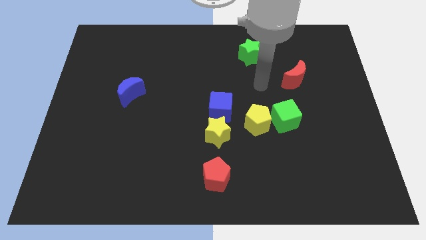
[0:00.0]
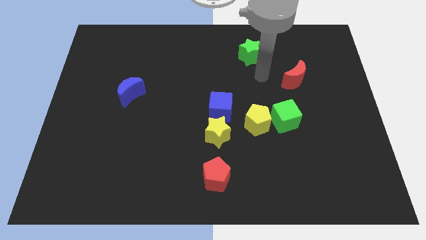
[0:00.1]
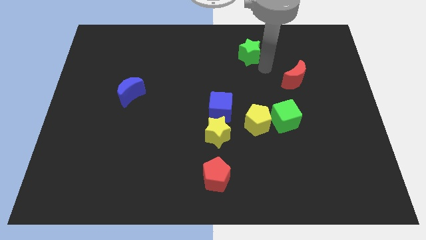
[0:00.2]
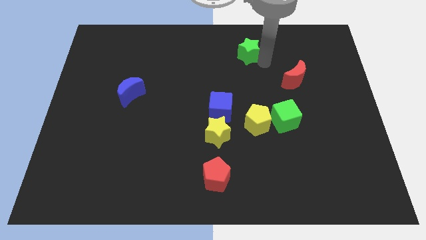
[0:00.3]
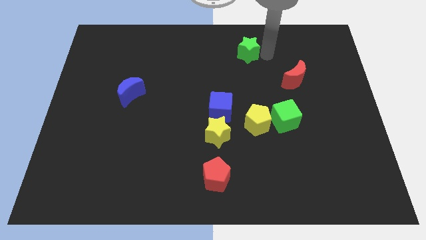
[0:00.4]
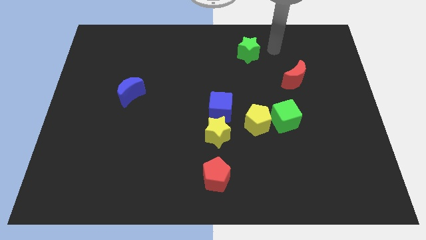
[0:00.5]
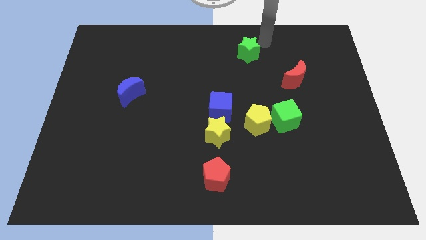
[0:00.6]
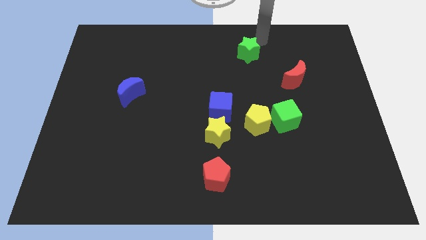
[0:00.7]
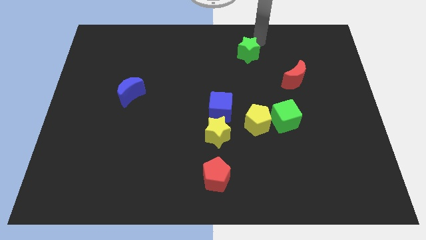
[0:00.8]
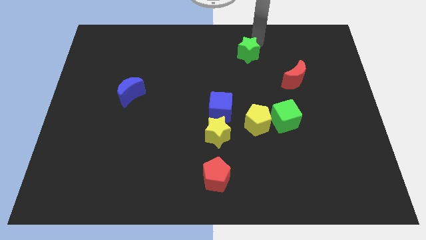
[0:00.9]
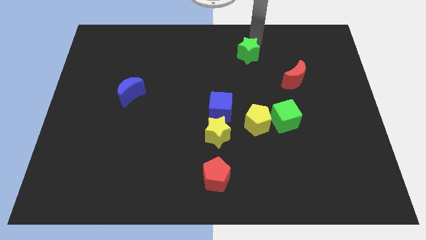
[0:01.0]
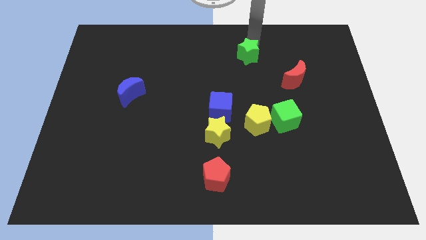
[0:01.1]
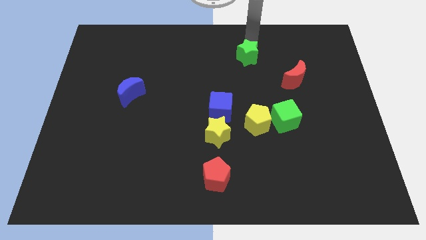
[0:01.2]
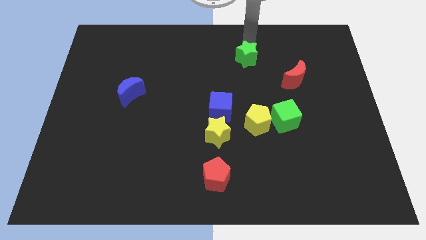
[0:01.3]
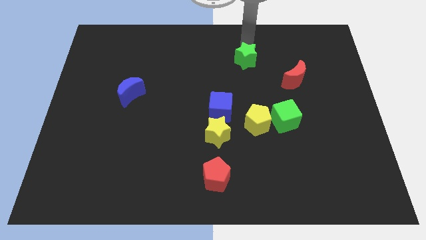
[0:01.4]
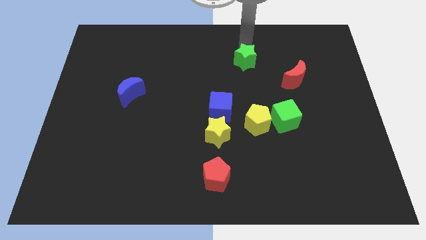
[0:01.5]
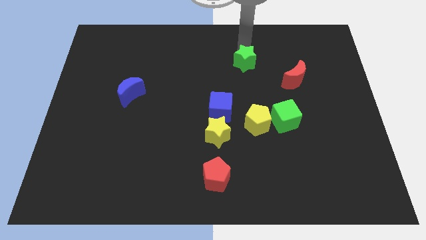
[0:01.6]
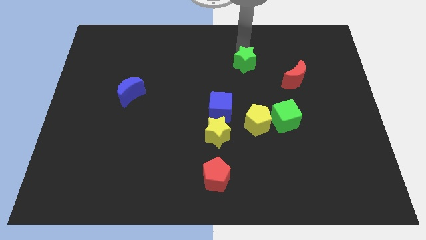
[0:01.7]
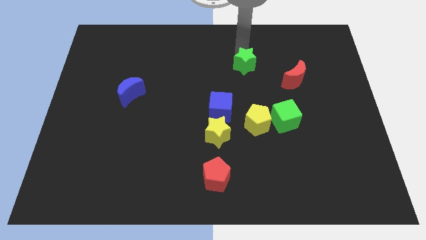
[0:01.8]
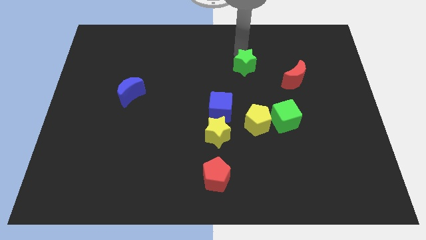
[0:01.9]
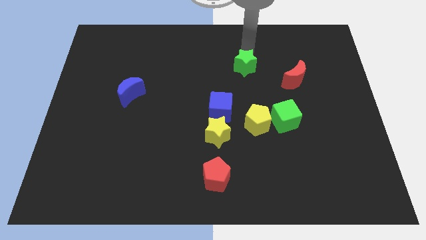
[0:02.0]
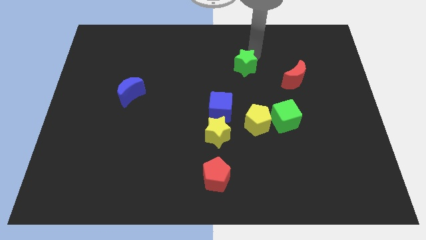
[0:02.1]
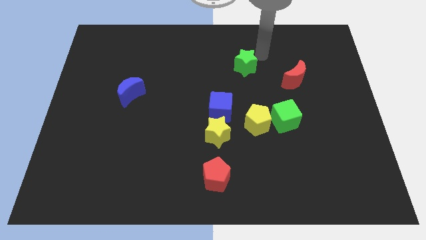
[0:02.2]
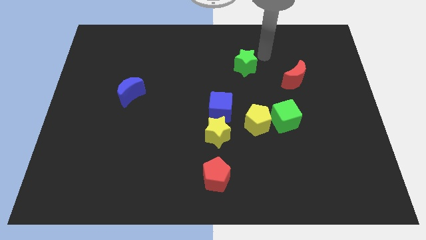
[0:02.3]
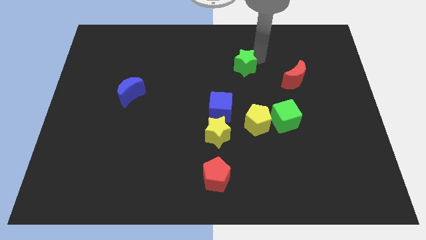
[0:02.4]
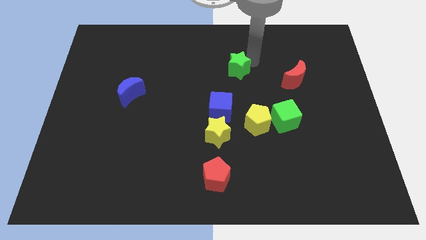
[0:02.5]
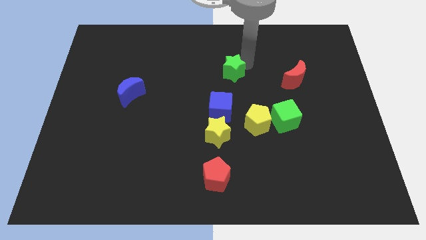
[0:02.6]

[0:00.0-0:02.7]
move the green star downwards and left diagonally somewhat

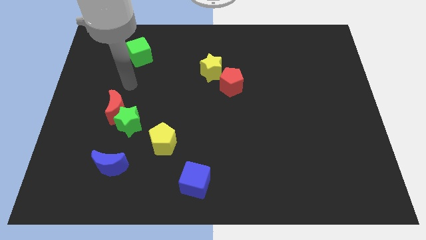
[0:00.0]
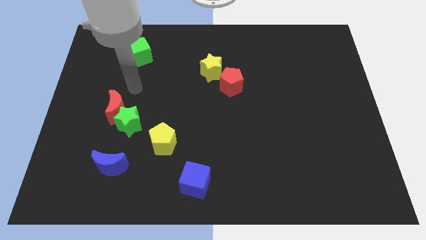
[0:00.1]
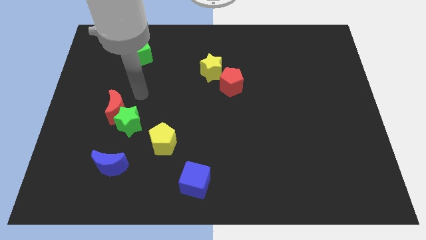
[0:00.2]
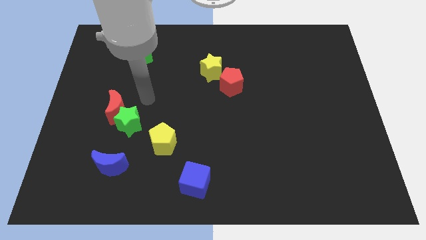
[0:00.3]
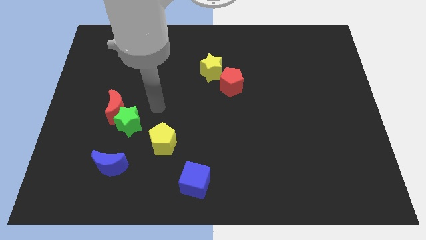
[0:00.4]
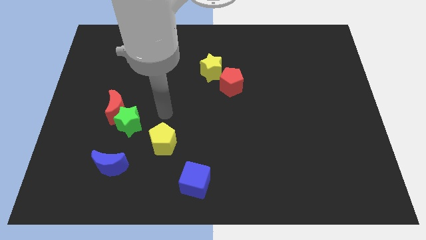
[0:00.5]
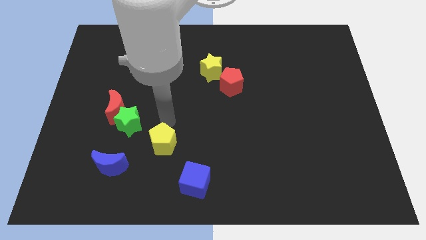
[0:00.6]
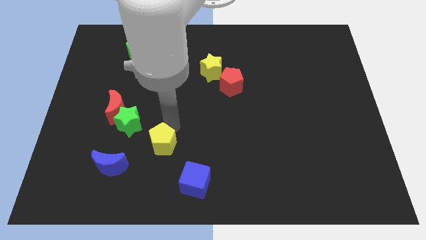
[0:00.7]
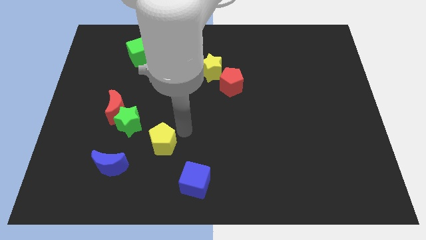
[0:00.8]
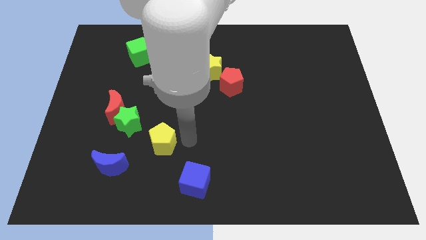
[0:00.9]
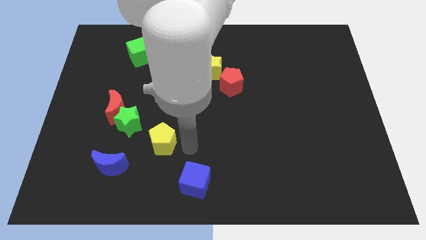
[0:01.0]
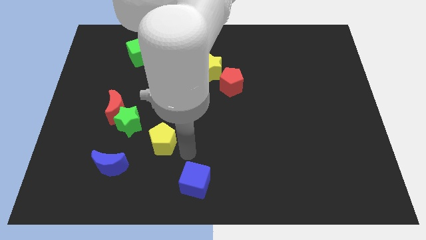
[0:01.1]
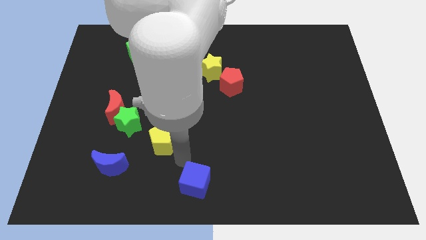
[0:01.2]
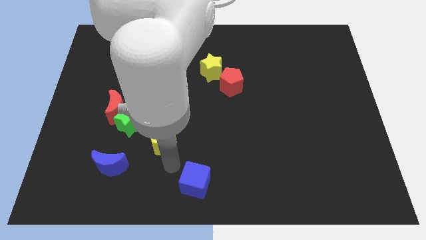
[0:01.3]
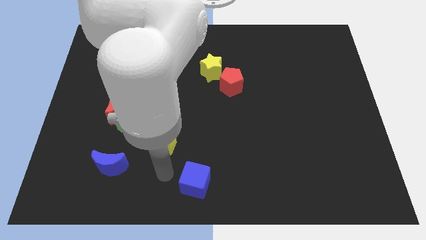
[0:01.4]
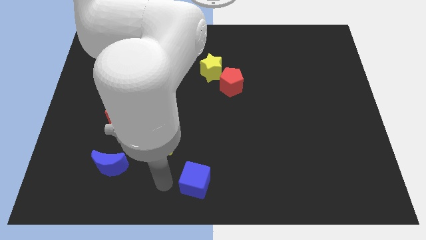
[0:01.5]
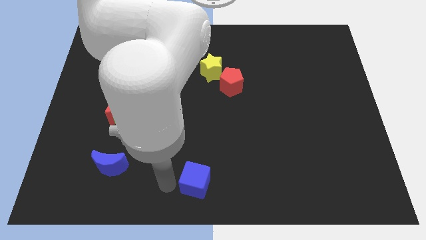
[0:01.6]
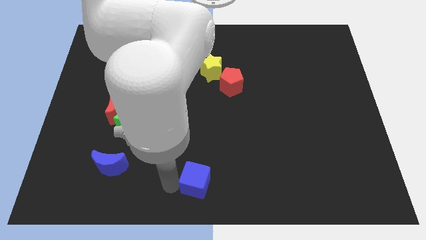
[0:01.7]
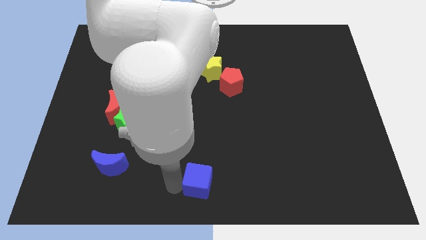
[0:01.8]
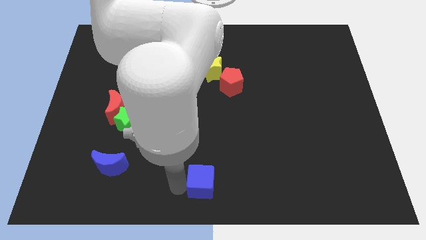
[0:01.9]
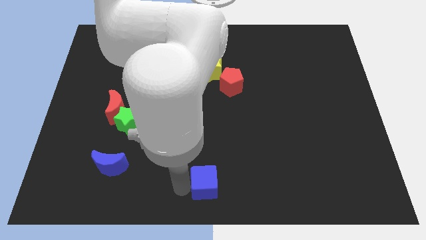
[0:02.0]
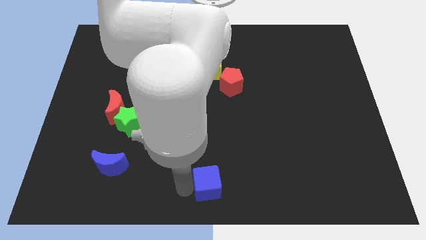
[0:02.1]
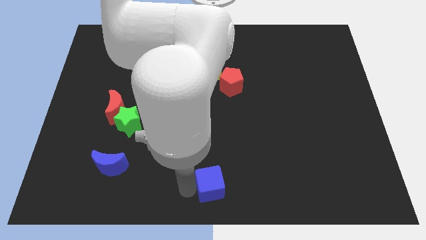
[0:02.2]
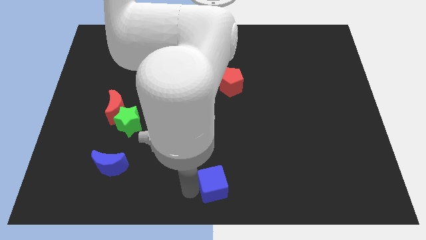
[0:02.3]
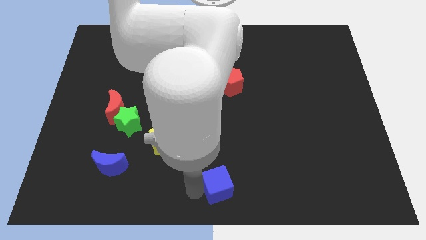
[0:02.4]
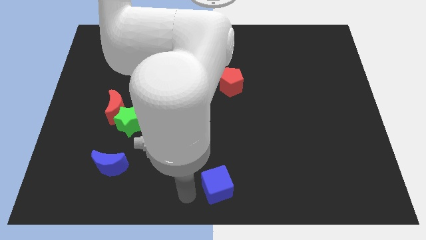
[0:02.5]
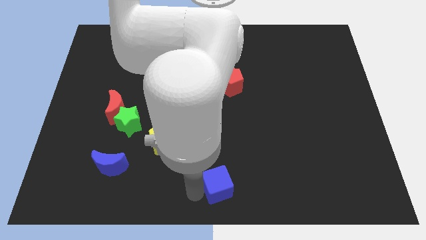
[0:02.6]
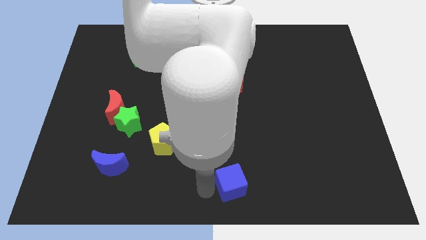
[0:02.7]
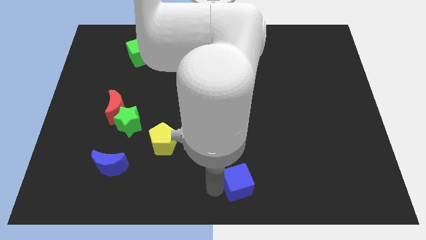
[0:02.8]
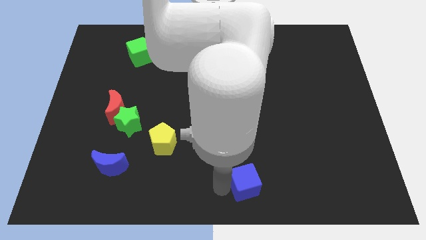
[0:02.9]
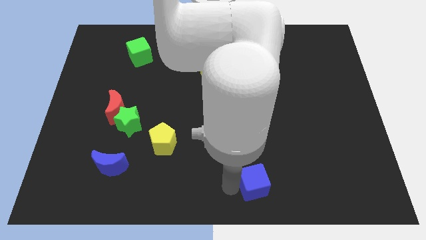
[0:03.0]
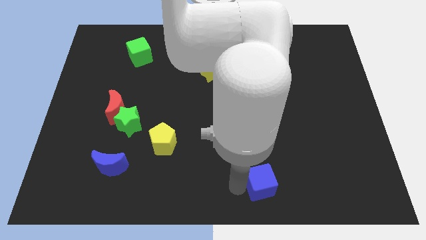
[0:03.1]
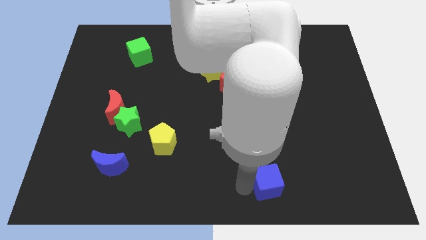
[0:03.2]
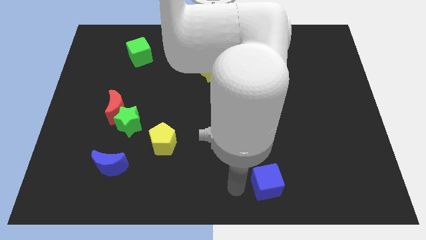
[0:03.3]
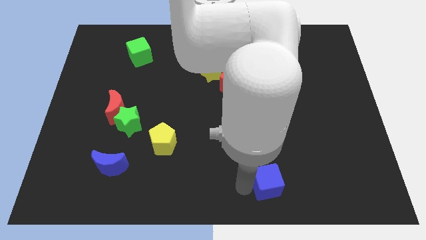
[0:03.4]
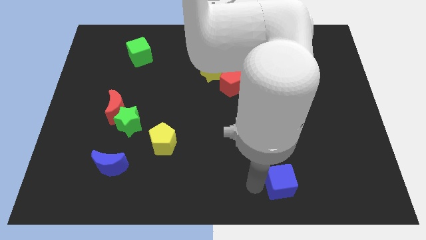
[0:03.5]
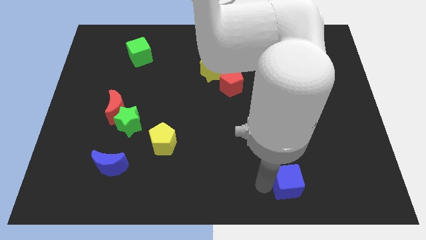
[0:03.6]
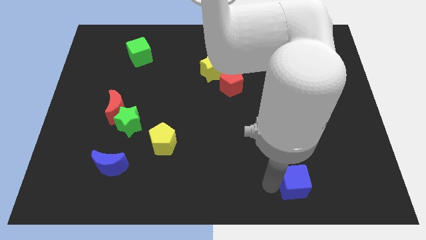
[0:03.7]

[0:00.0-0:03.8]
slide the blue cube to the right

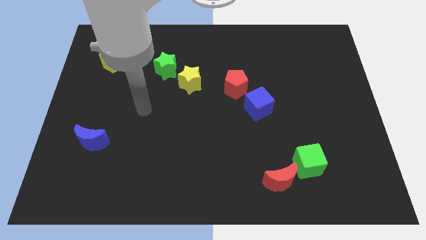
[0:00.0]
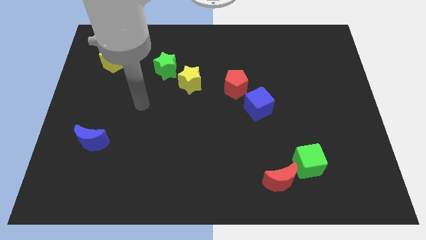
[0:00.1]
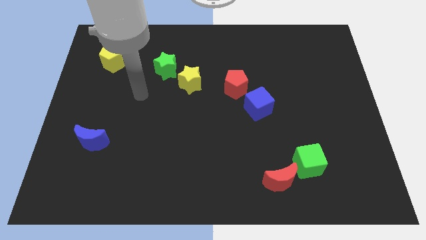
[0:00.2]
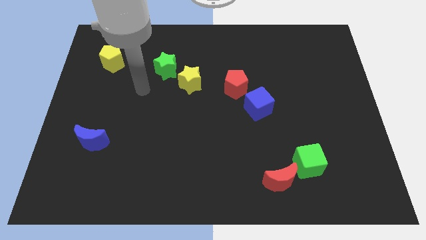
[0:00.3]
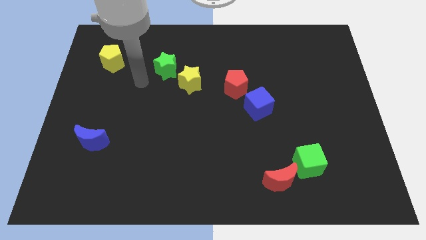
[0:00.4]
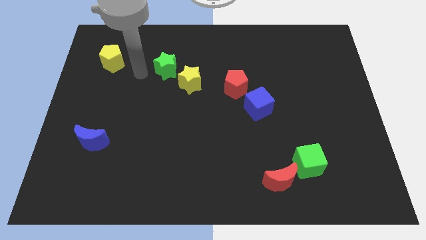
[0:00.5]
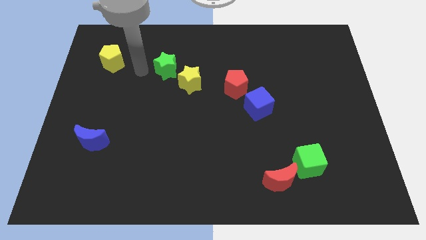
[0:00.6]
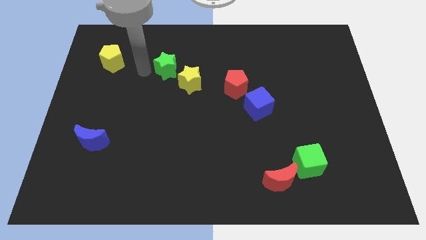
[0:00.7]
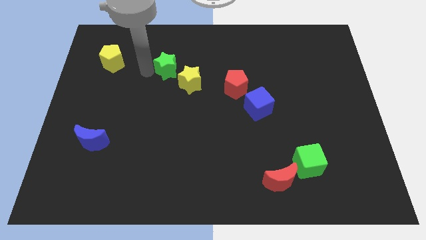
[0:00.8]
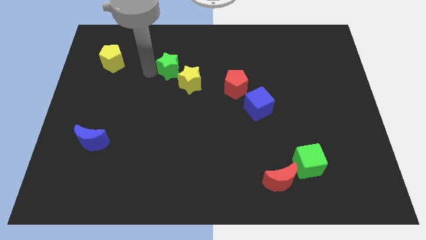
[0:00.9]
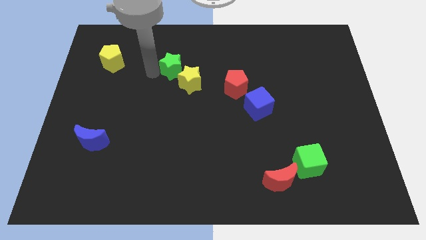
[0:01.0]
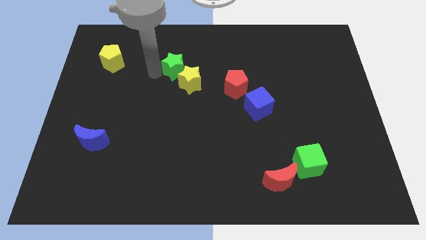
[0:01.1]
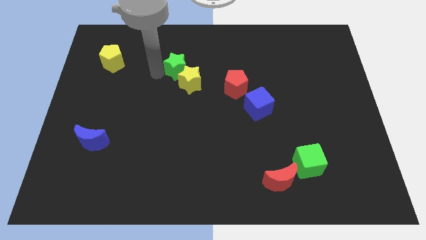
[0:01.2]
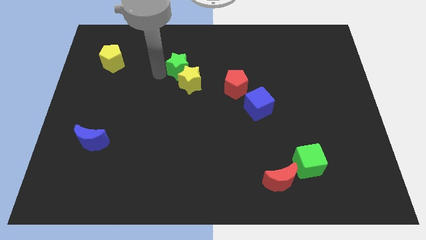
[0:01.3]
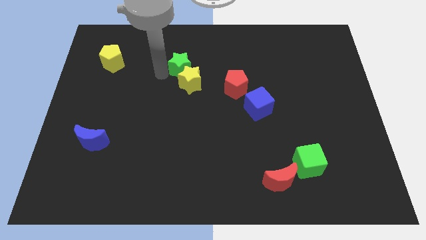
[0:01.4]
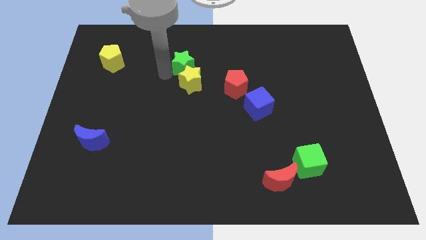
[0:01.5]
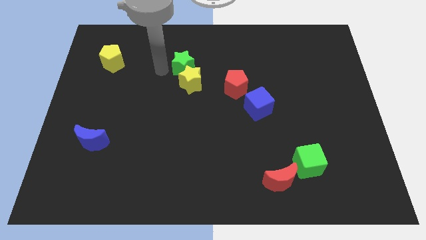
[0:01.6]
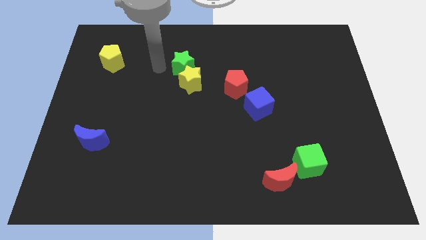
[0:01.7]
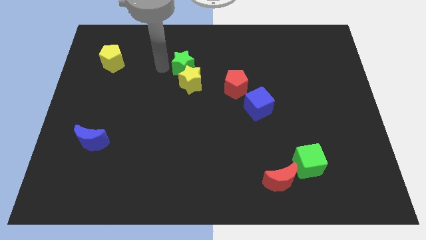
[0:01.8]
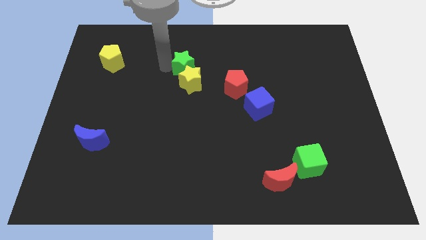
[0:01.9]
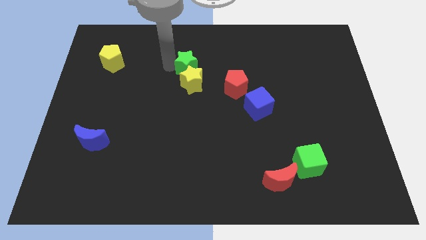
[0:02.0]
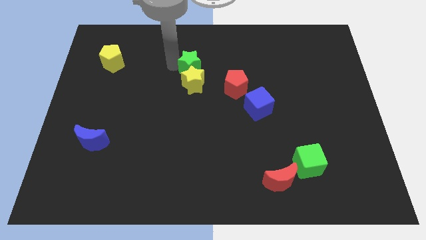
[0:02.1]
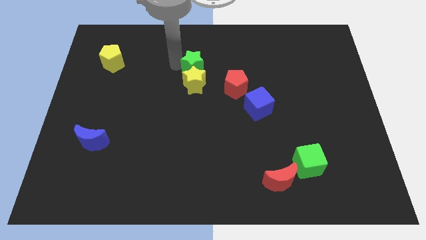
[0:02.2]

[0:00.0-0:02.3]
move the green star a little right
